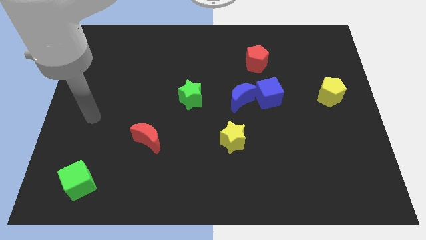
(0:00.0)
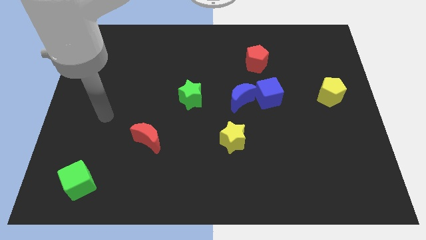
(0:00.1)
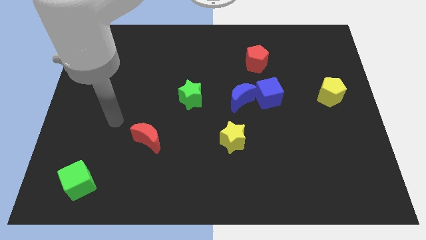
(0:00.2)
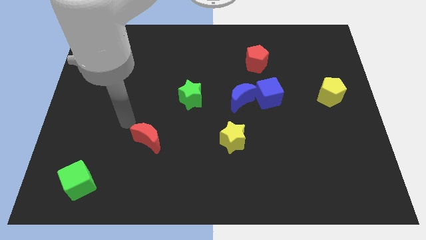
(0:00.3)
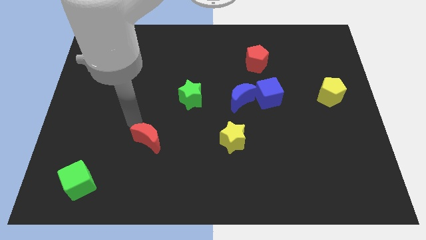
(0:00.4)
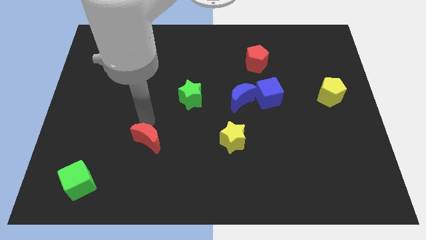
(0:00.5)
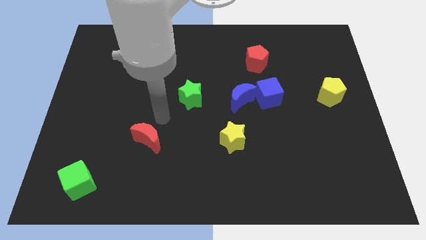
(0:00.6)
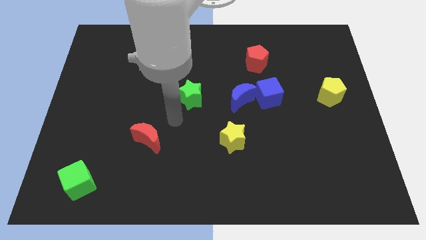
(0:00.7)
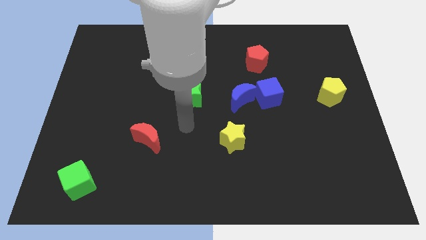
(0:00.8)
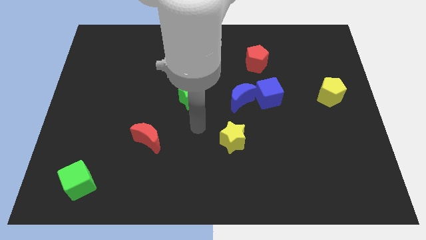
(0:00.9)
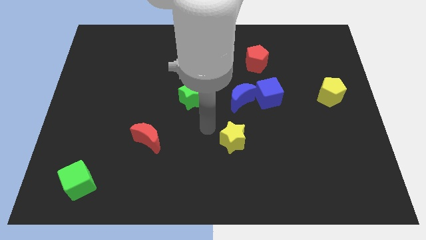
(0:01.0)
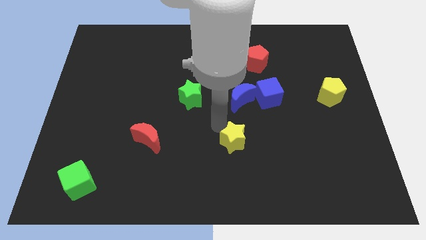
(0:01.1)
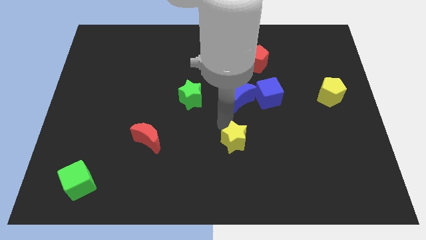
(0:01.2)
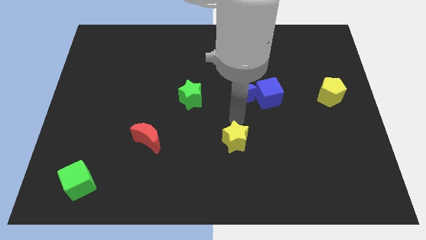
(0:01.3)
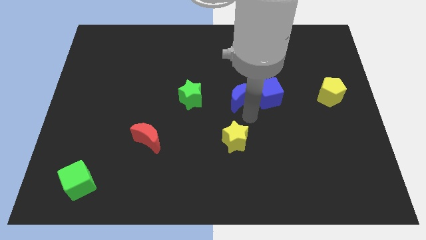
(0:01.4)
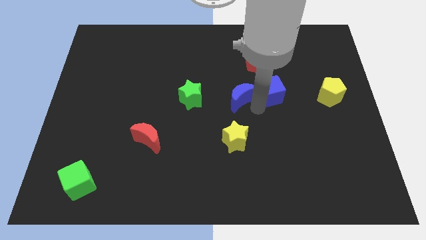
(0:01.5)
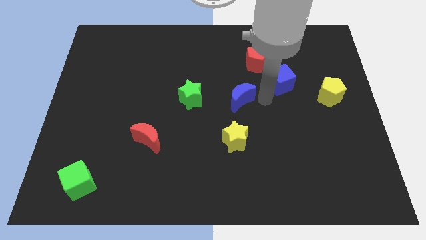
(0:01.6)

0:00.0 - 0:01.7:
separate the blue moon from the blue cube

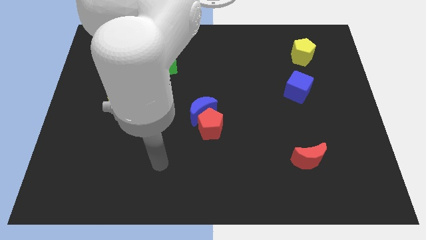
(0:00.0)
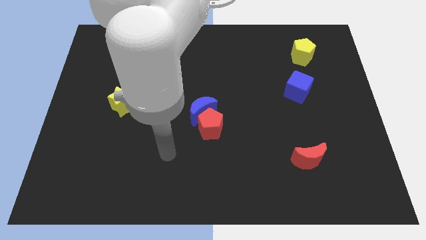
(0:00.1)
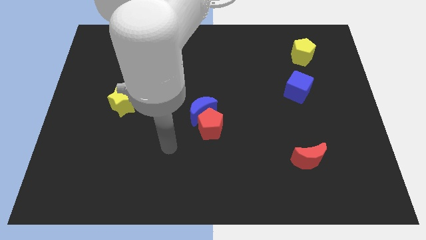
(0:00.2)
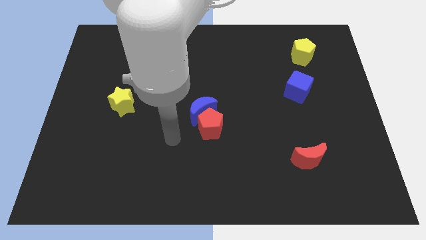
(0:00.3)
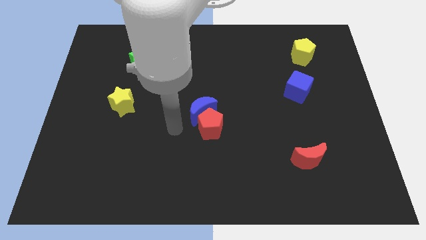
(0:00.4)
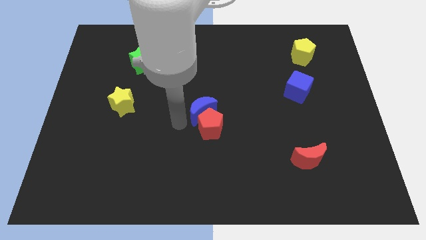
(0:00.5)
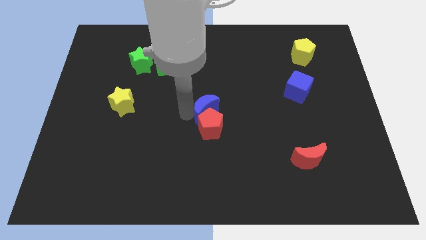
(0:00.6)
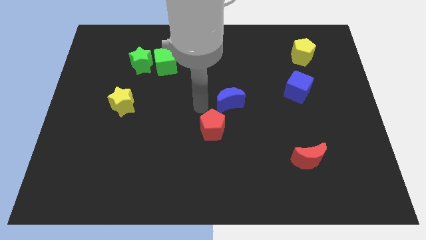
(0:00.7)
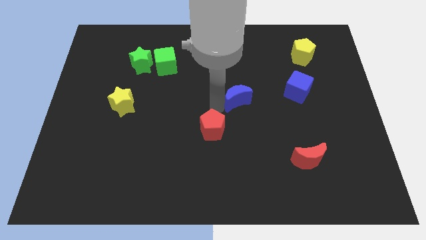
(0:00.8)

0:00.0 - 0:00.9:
separate the red pentagon from the blue moon

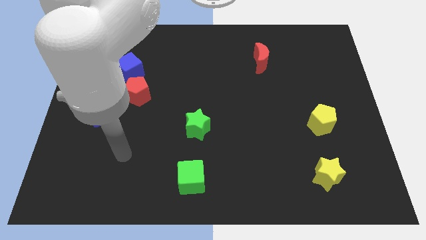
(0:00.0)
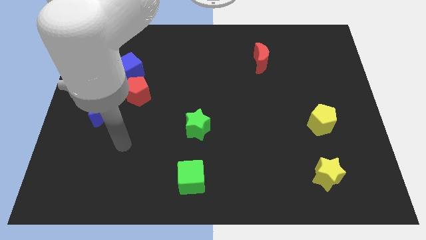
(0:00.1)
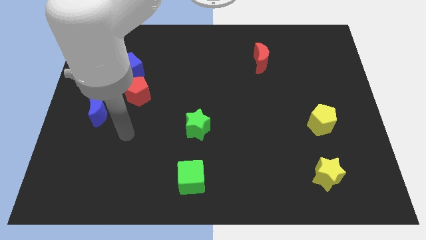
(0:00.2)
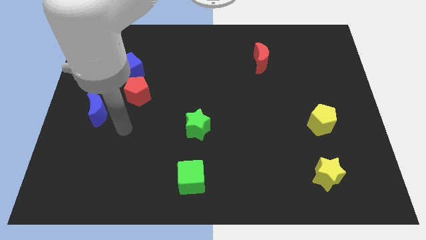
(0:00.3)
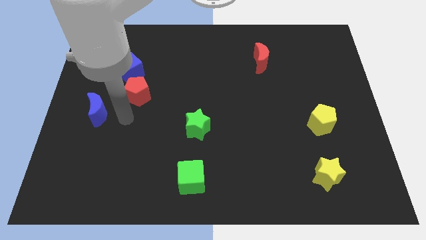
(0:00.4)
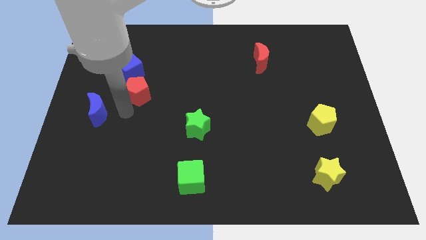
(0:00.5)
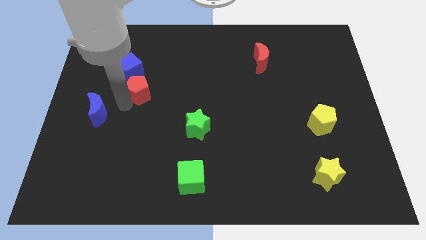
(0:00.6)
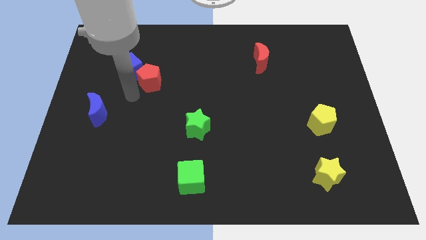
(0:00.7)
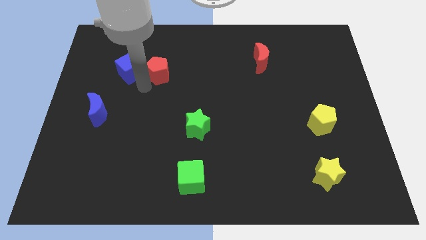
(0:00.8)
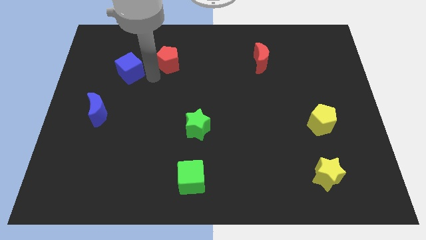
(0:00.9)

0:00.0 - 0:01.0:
move the blue cube away from the red pentagon

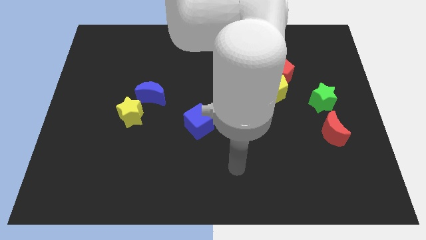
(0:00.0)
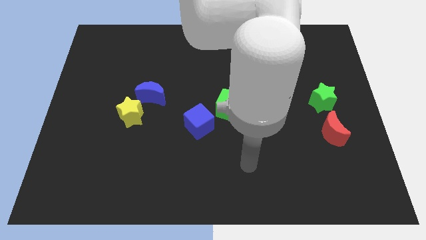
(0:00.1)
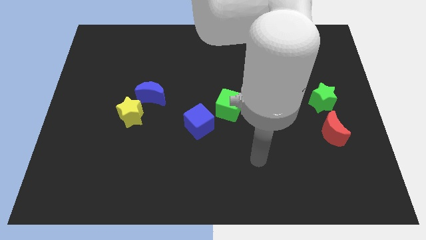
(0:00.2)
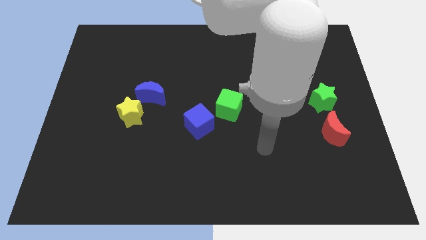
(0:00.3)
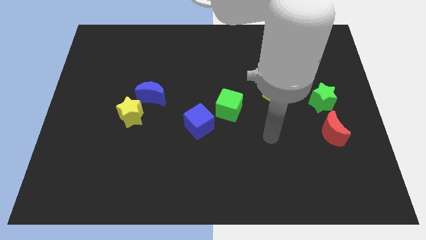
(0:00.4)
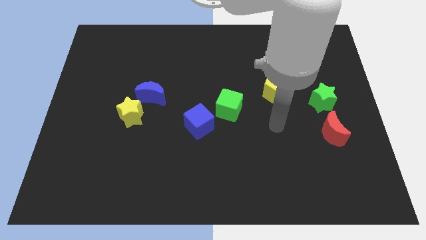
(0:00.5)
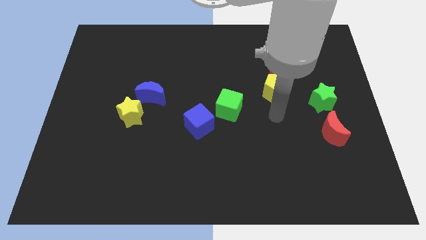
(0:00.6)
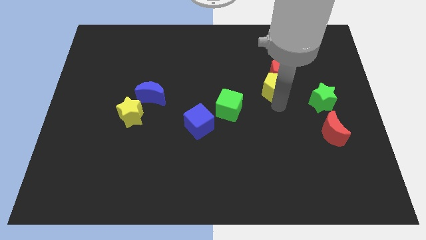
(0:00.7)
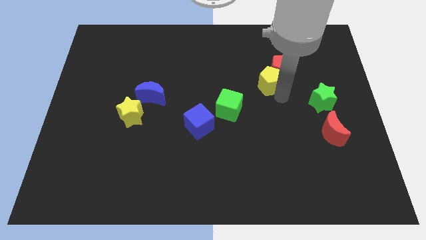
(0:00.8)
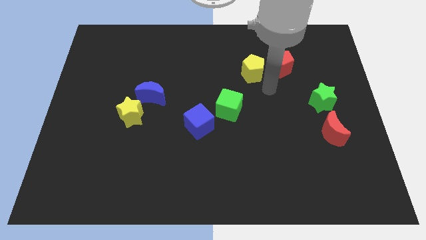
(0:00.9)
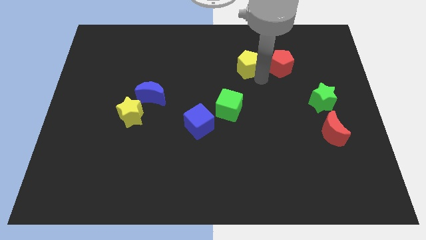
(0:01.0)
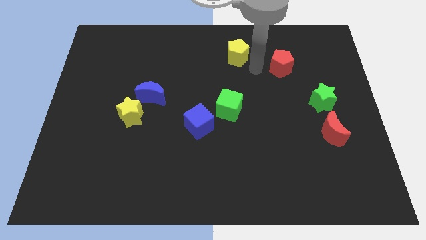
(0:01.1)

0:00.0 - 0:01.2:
pull the red pentagon apart from the yellow pentagon

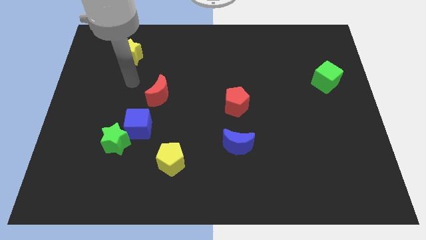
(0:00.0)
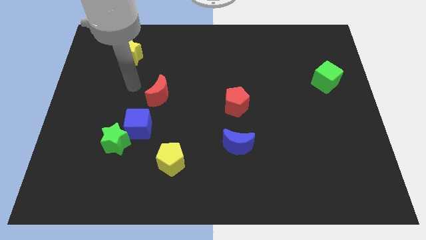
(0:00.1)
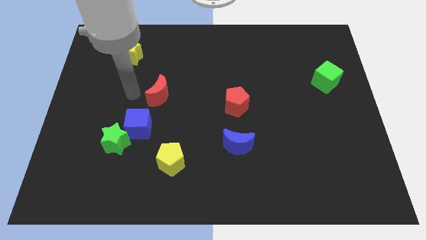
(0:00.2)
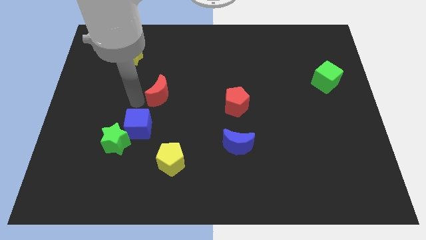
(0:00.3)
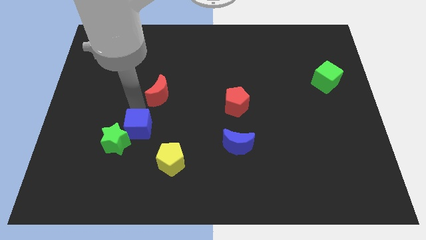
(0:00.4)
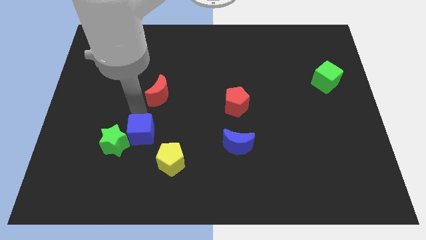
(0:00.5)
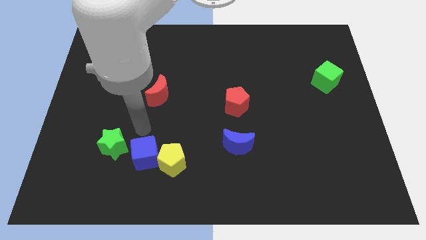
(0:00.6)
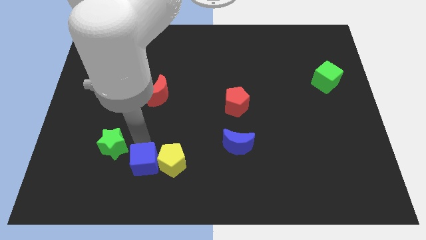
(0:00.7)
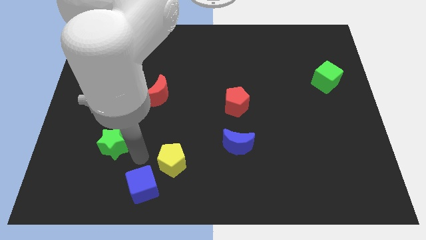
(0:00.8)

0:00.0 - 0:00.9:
move the green star away from the blue cube

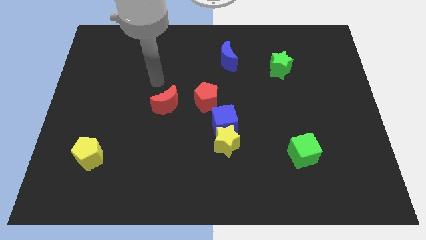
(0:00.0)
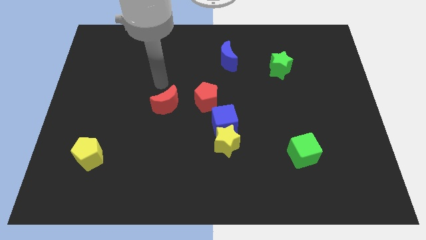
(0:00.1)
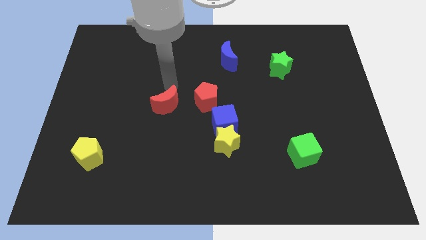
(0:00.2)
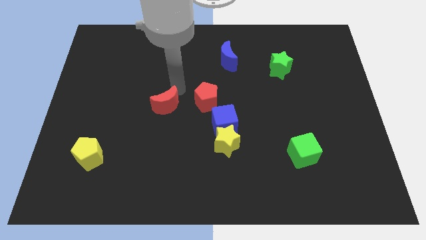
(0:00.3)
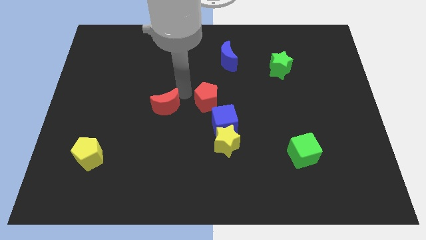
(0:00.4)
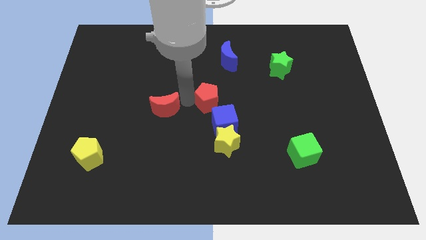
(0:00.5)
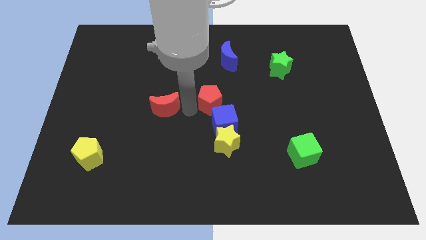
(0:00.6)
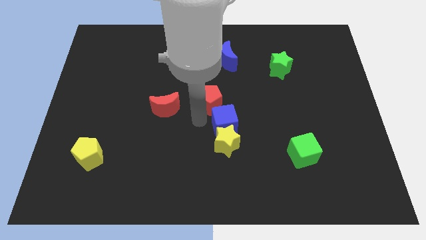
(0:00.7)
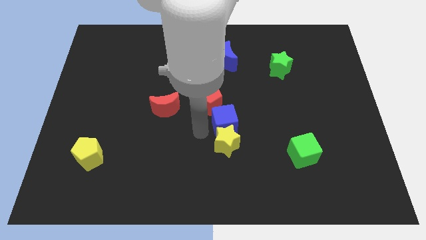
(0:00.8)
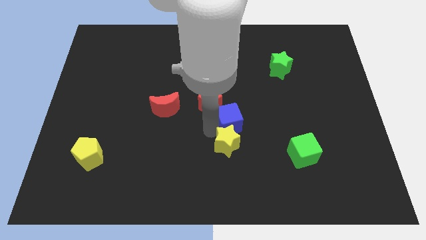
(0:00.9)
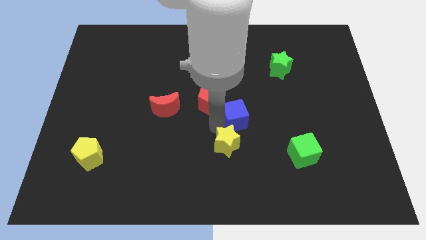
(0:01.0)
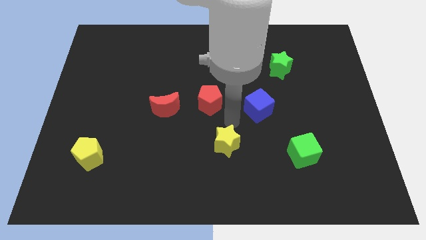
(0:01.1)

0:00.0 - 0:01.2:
move the yellow star away from the blue cube

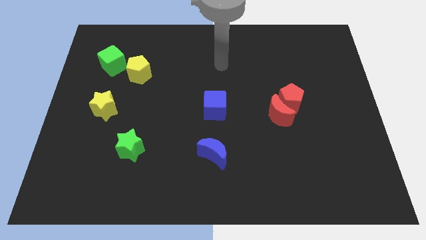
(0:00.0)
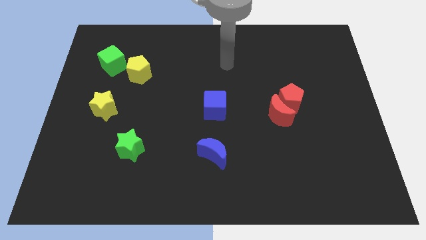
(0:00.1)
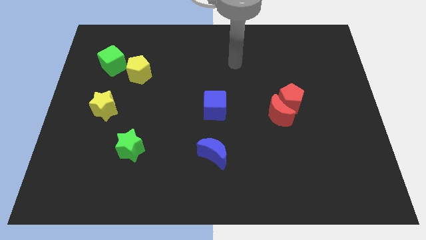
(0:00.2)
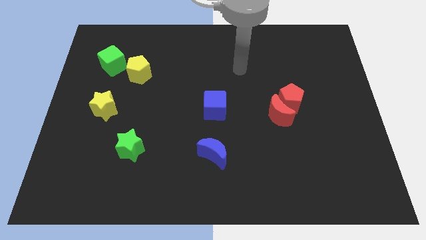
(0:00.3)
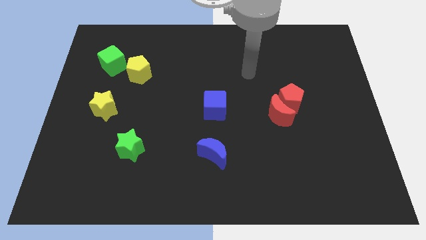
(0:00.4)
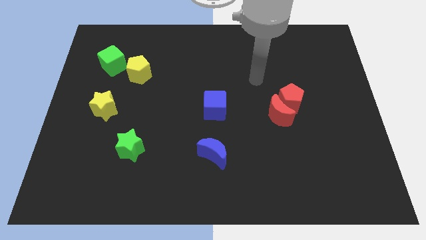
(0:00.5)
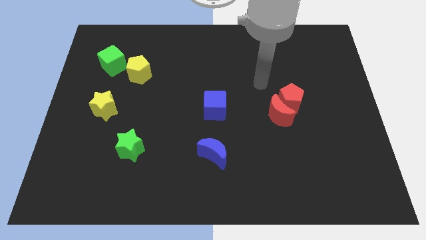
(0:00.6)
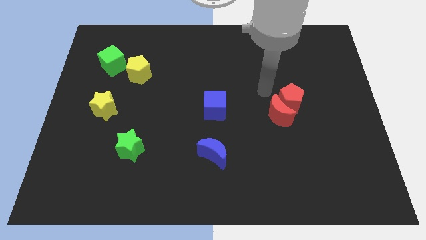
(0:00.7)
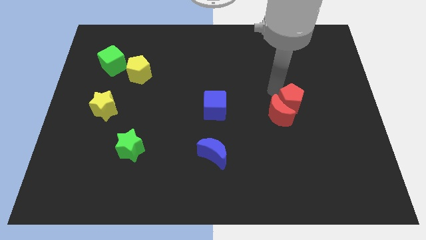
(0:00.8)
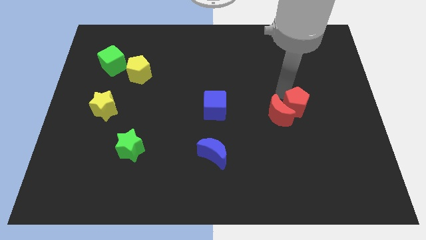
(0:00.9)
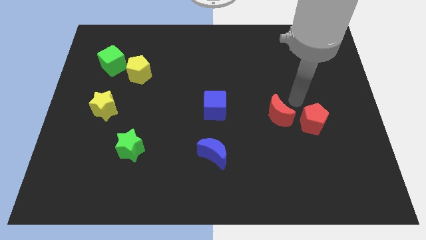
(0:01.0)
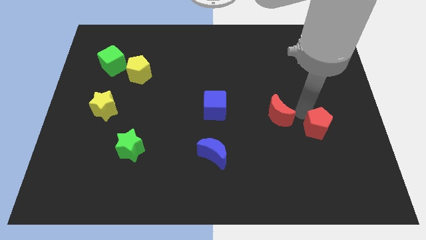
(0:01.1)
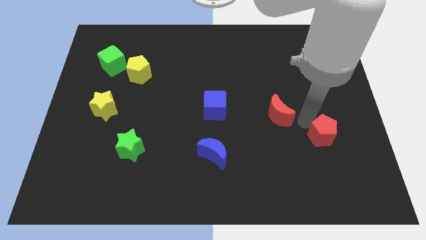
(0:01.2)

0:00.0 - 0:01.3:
separate the red moon from the red pentagon

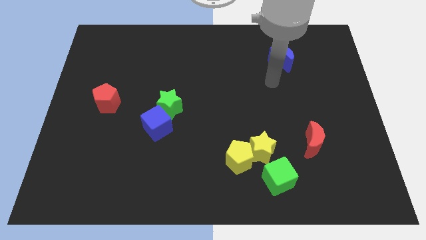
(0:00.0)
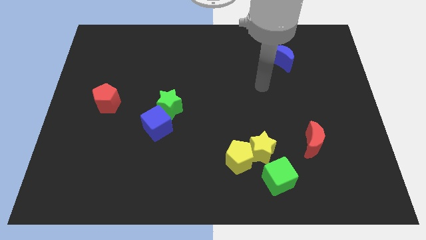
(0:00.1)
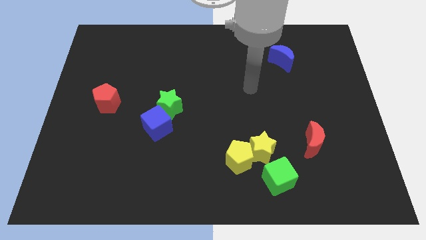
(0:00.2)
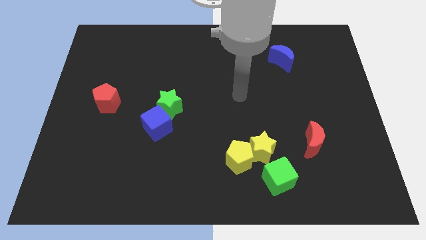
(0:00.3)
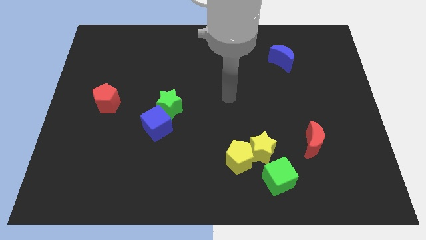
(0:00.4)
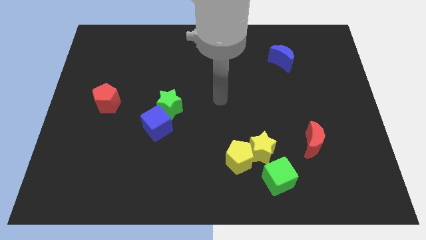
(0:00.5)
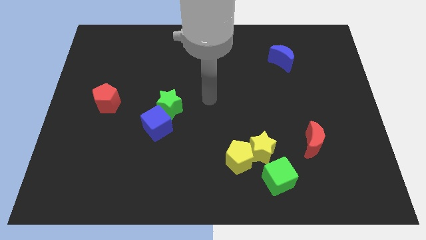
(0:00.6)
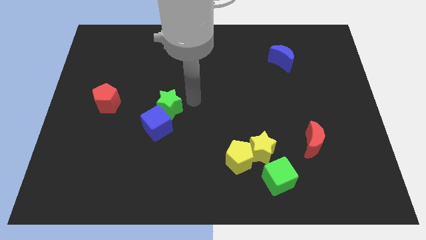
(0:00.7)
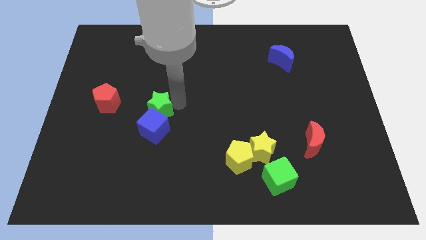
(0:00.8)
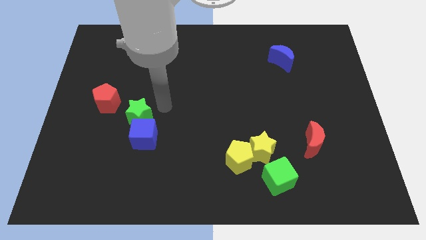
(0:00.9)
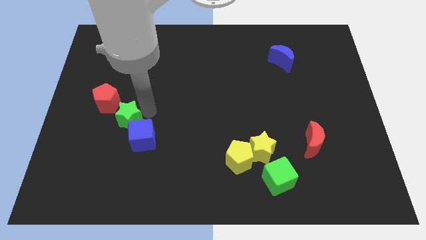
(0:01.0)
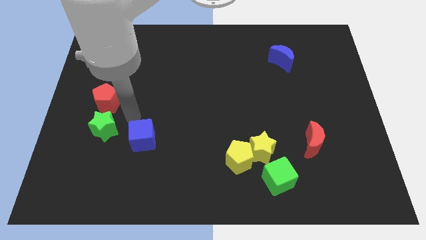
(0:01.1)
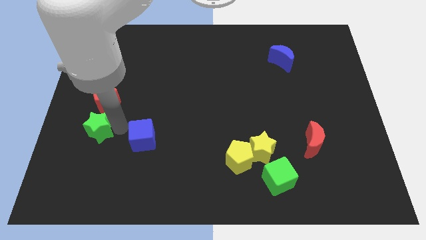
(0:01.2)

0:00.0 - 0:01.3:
pull the blue cube apart from the green star
